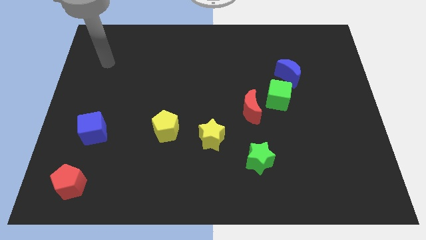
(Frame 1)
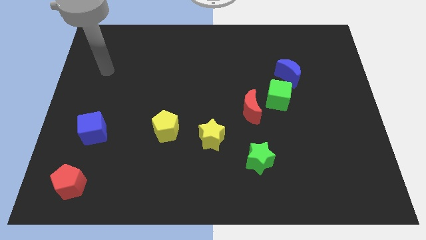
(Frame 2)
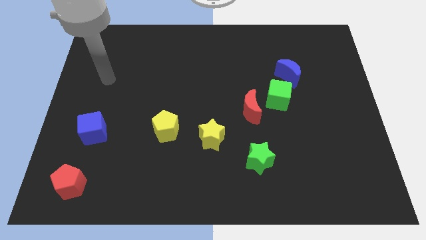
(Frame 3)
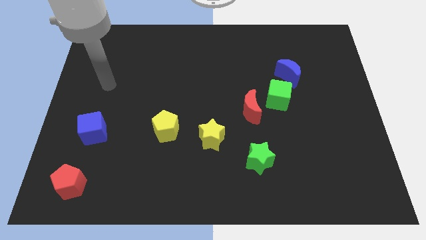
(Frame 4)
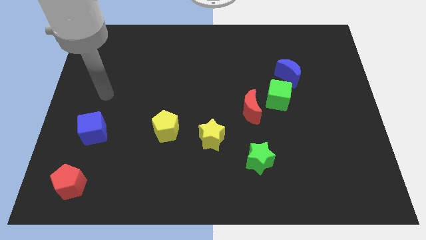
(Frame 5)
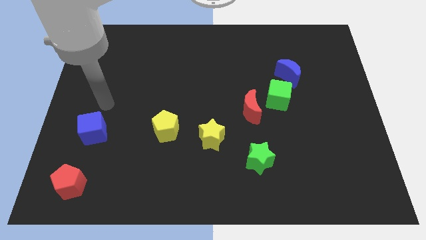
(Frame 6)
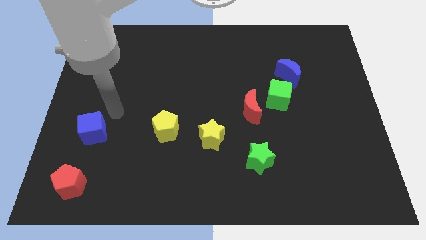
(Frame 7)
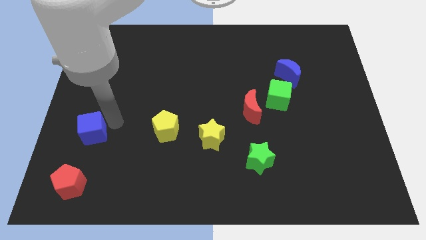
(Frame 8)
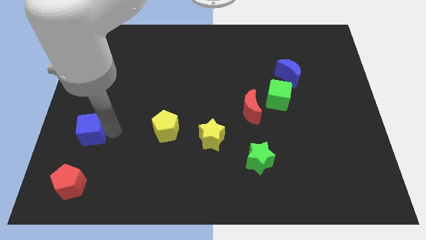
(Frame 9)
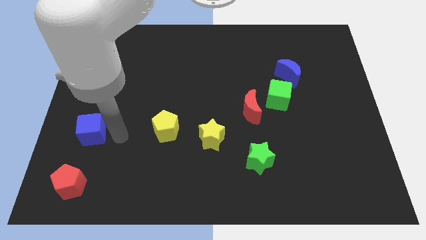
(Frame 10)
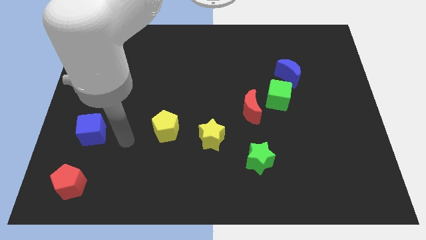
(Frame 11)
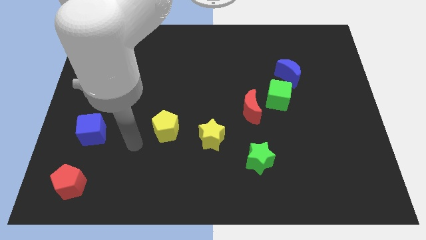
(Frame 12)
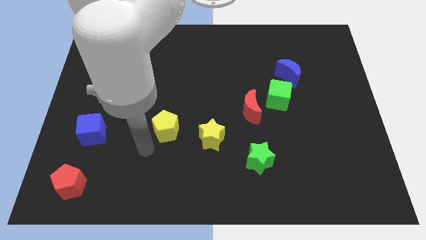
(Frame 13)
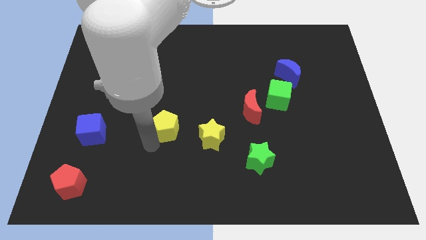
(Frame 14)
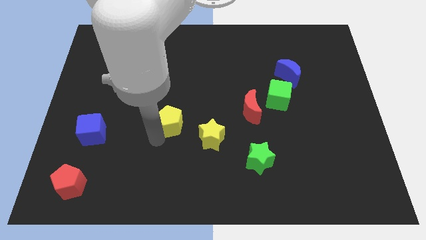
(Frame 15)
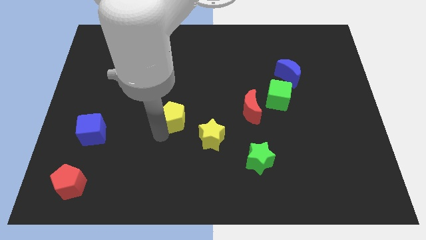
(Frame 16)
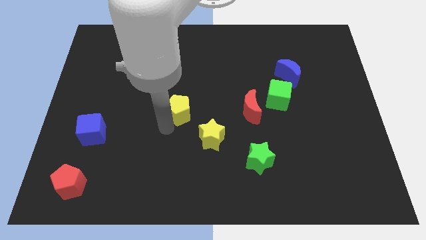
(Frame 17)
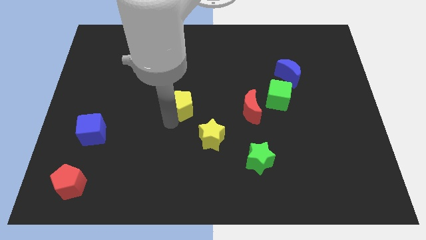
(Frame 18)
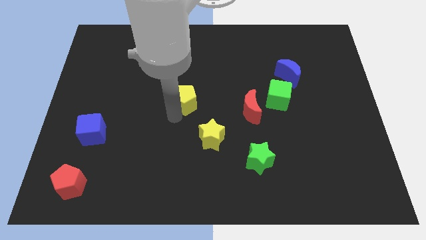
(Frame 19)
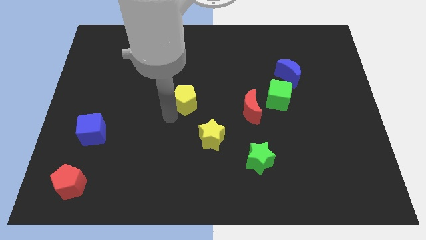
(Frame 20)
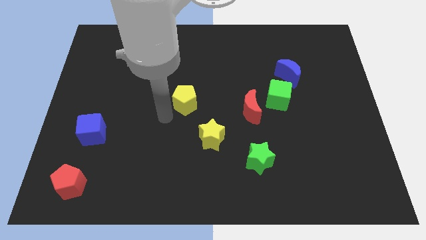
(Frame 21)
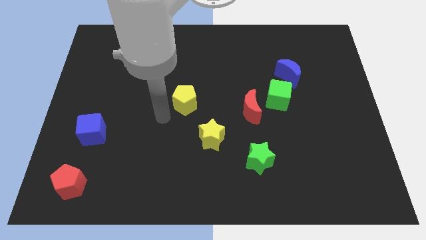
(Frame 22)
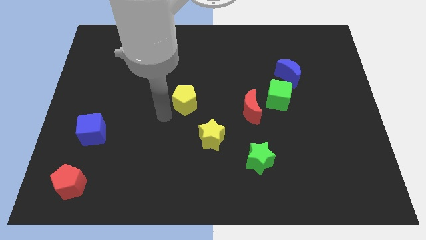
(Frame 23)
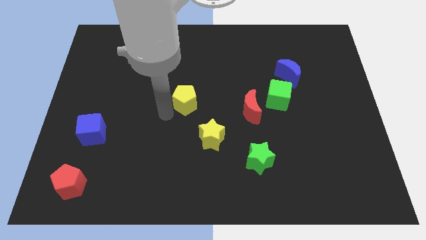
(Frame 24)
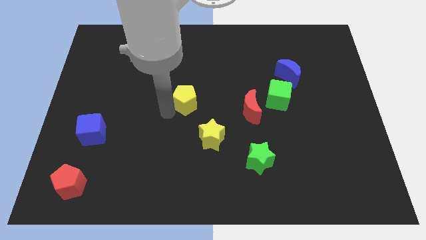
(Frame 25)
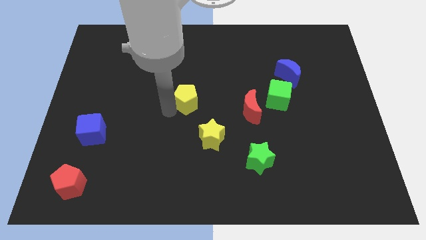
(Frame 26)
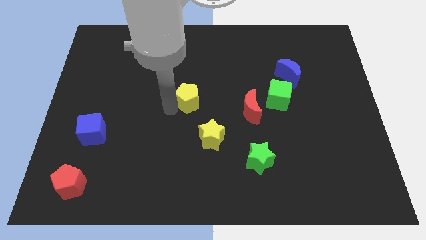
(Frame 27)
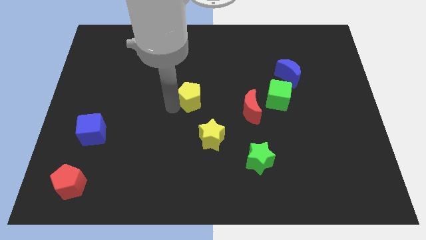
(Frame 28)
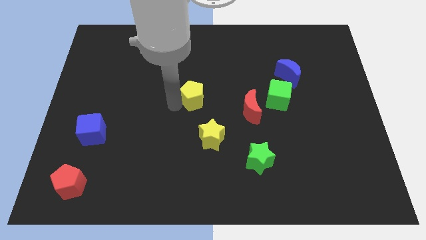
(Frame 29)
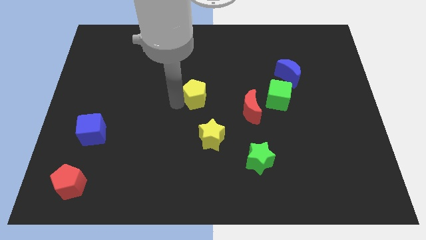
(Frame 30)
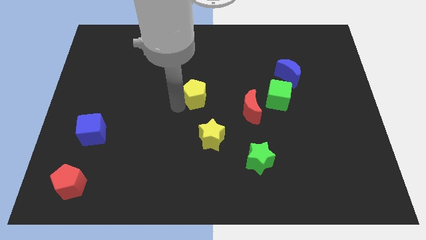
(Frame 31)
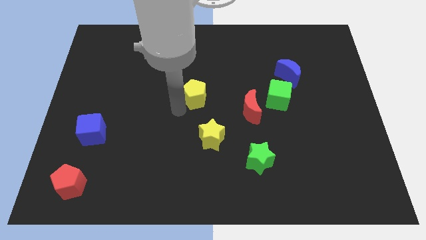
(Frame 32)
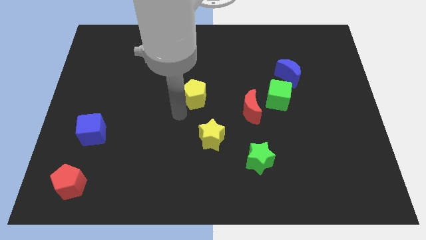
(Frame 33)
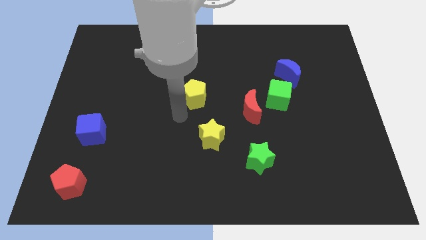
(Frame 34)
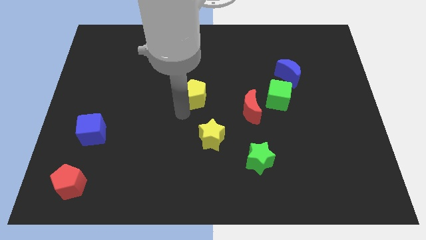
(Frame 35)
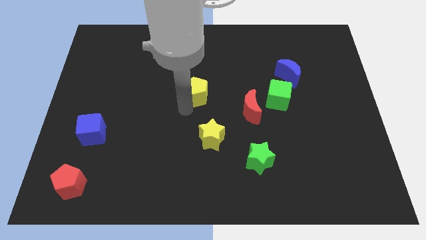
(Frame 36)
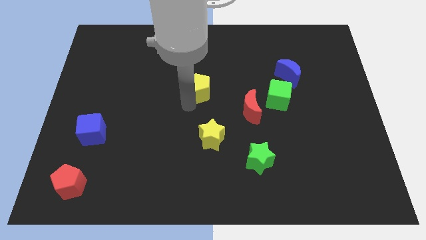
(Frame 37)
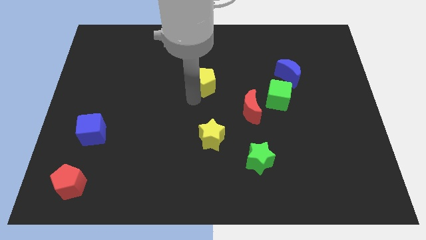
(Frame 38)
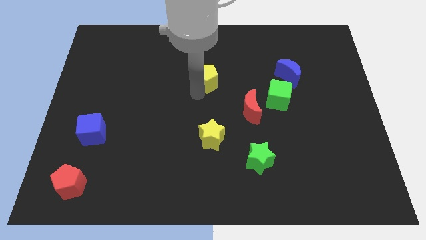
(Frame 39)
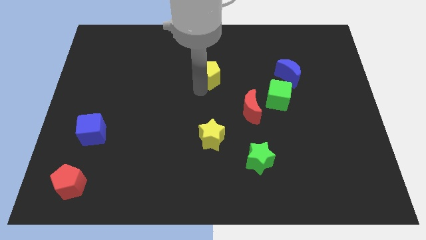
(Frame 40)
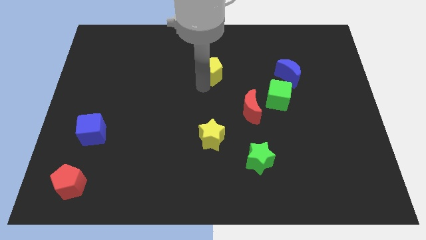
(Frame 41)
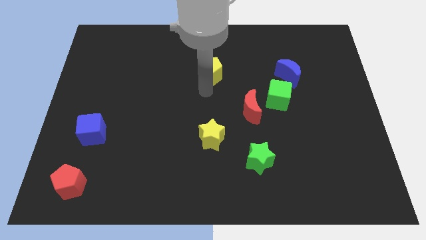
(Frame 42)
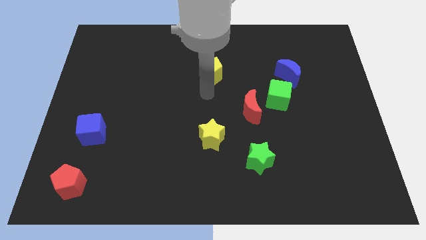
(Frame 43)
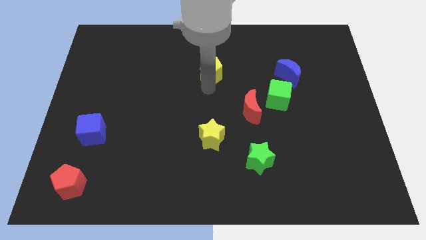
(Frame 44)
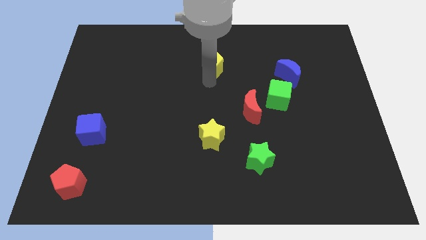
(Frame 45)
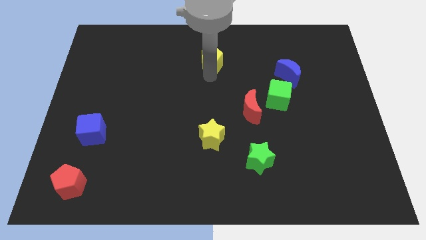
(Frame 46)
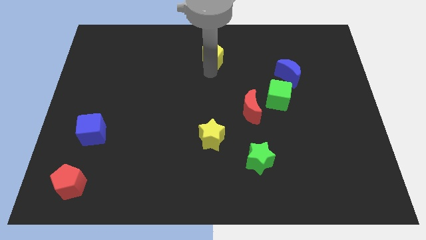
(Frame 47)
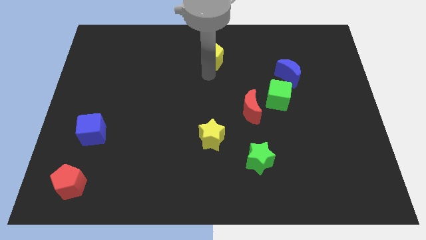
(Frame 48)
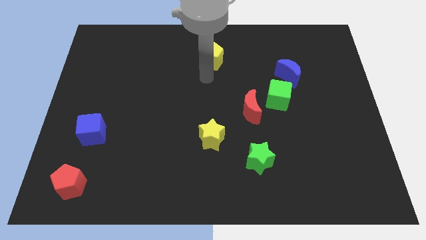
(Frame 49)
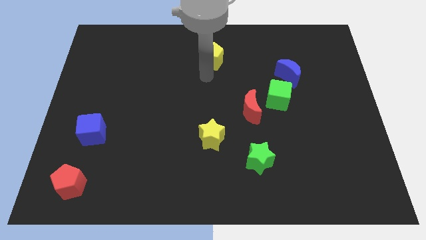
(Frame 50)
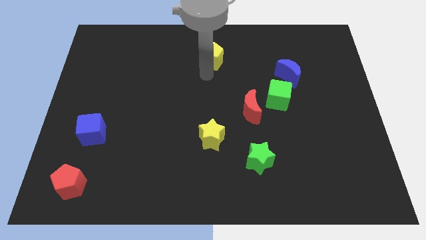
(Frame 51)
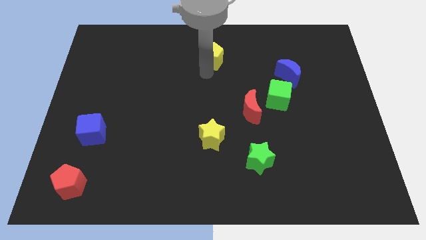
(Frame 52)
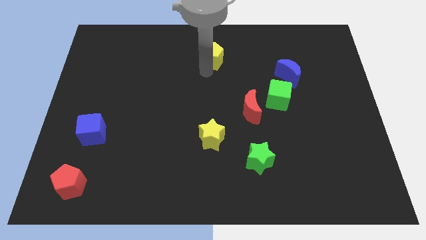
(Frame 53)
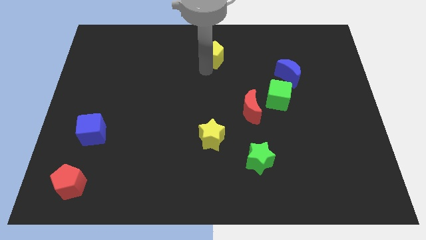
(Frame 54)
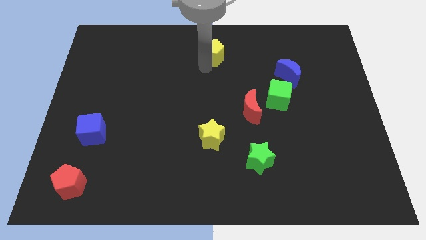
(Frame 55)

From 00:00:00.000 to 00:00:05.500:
slide the yellow pentagon to the top side

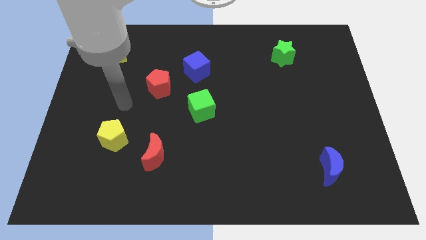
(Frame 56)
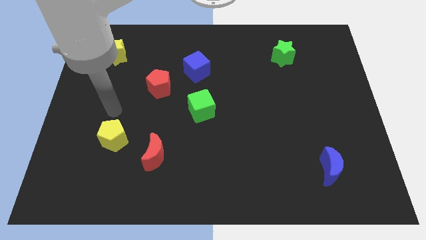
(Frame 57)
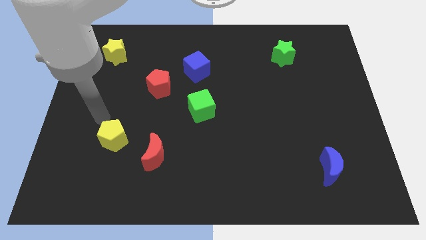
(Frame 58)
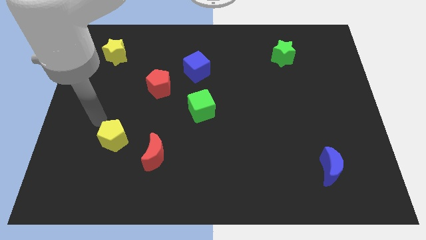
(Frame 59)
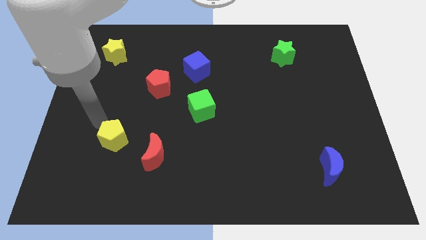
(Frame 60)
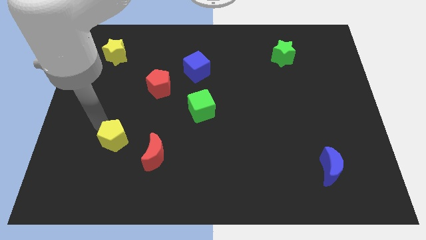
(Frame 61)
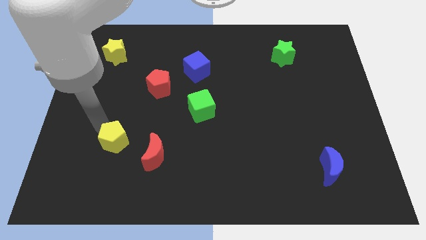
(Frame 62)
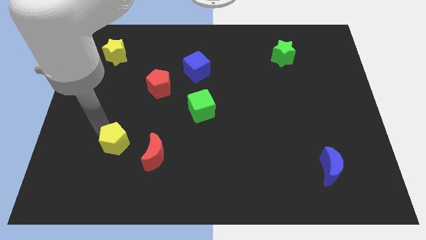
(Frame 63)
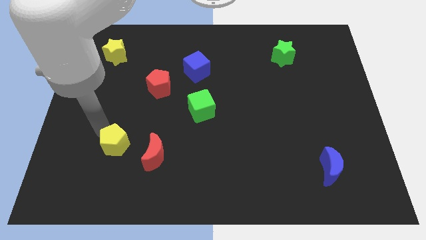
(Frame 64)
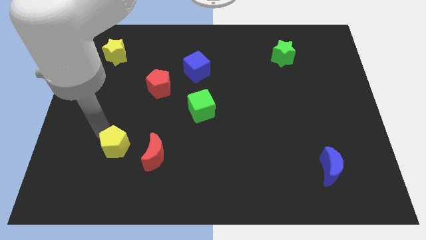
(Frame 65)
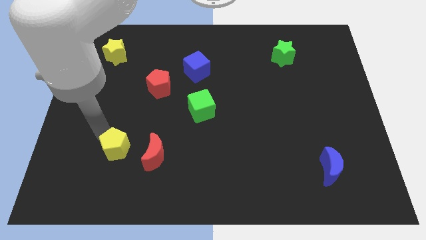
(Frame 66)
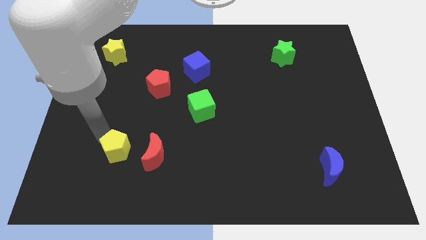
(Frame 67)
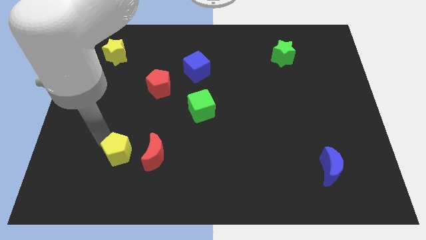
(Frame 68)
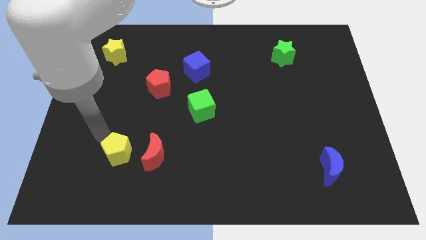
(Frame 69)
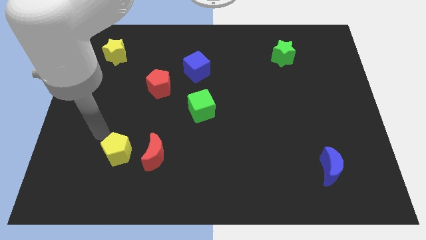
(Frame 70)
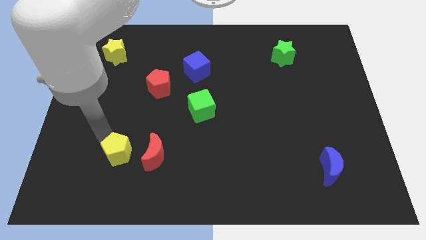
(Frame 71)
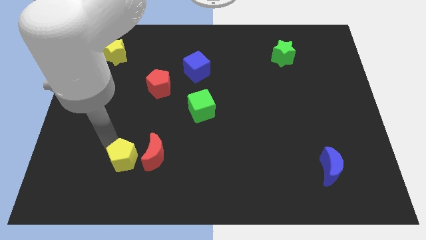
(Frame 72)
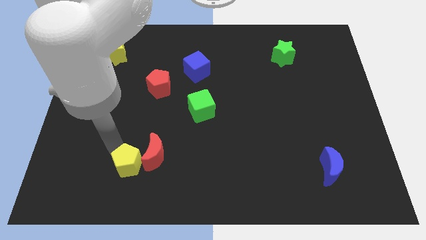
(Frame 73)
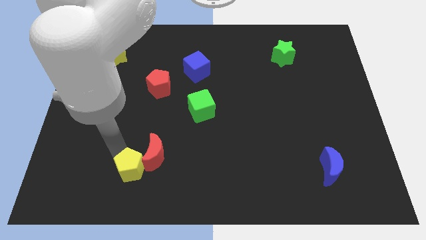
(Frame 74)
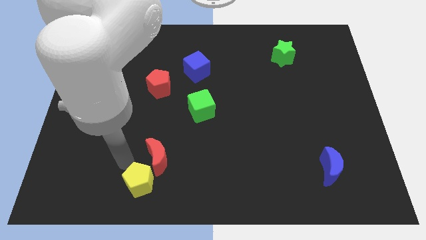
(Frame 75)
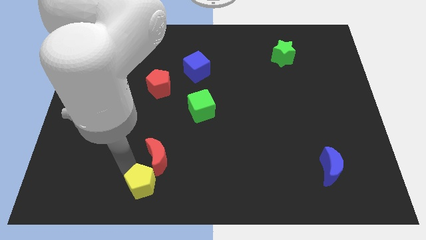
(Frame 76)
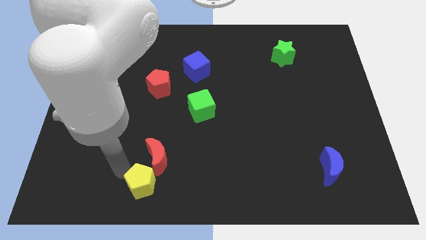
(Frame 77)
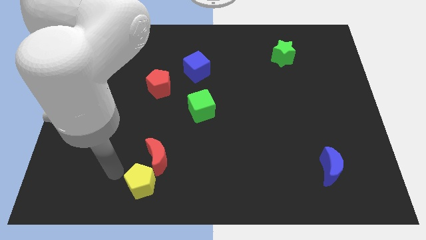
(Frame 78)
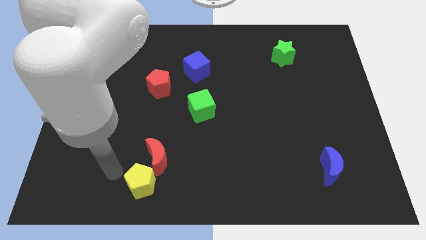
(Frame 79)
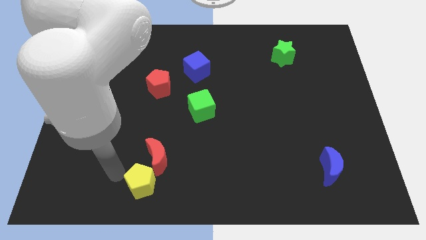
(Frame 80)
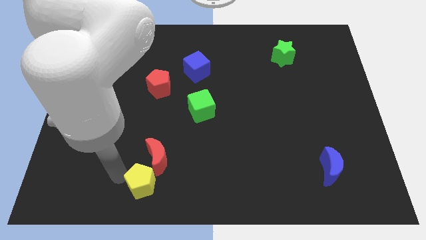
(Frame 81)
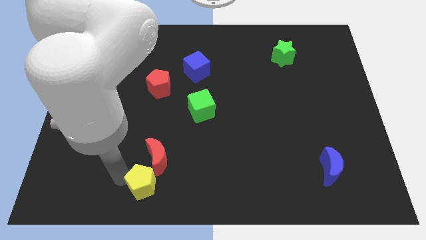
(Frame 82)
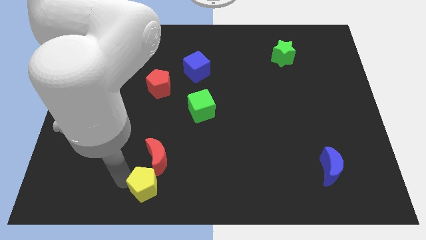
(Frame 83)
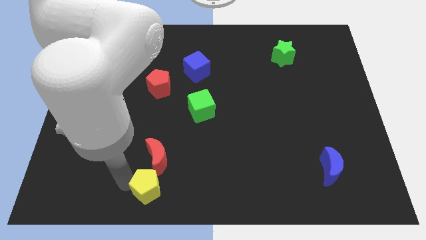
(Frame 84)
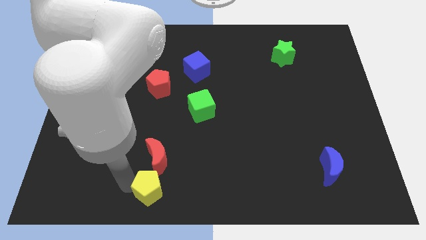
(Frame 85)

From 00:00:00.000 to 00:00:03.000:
put the yellow pentagon to the bottom side
